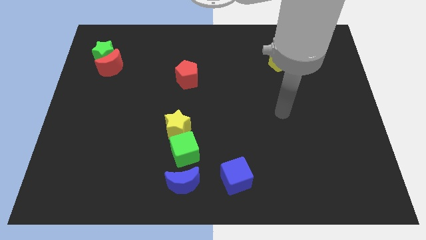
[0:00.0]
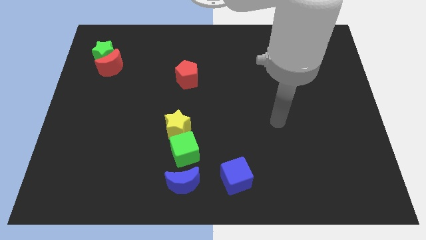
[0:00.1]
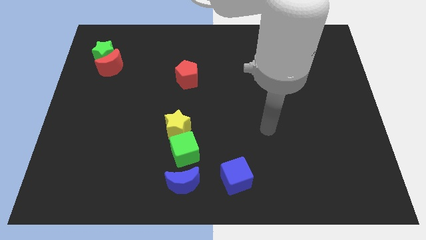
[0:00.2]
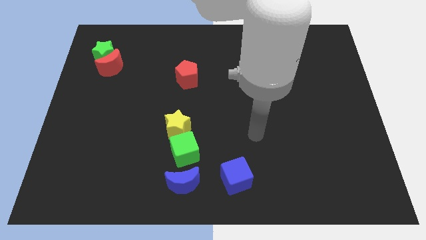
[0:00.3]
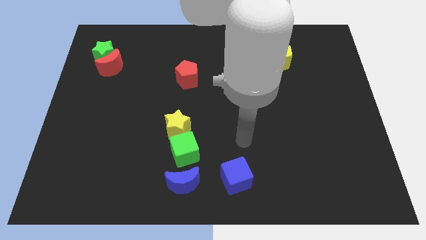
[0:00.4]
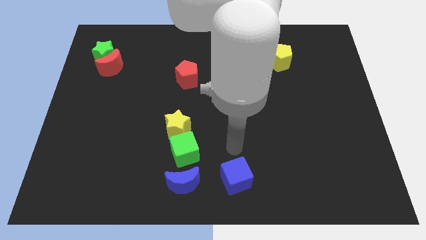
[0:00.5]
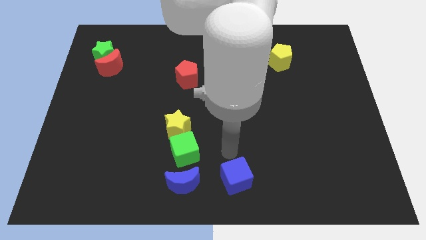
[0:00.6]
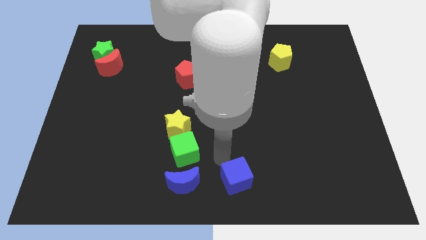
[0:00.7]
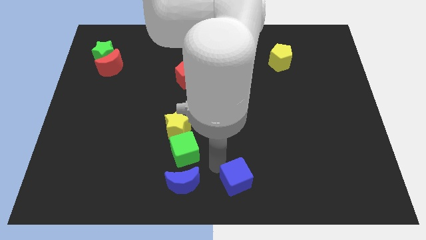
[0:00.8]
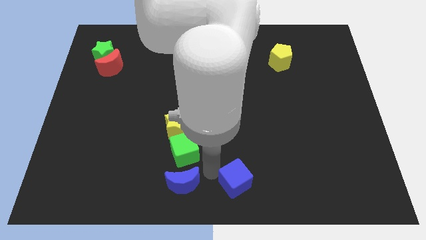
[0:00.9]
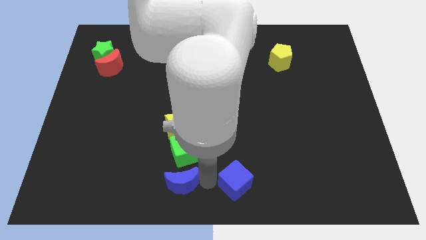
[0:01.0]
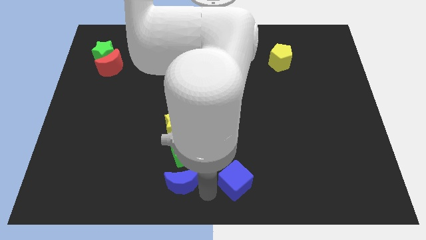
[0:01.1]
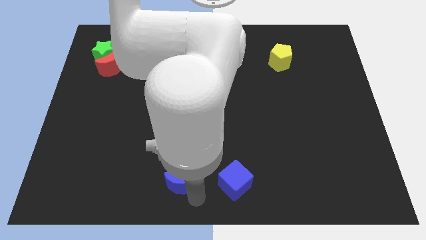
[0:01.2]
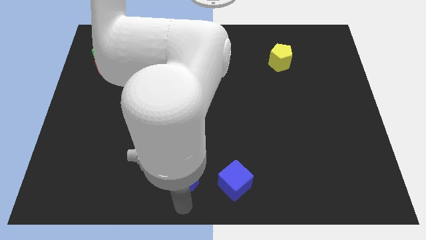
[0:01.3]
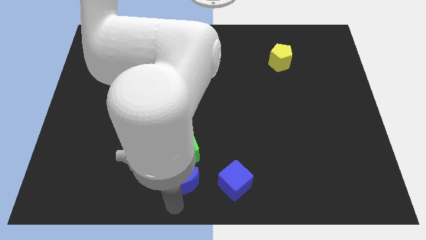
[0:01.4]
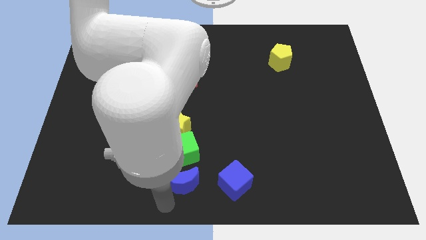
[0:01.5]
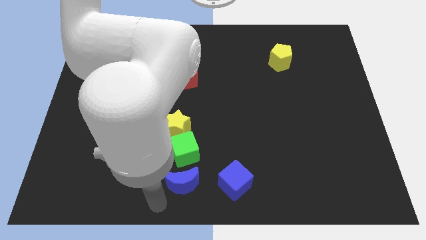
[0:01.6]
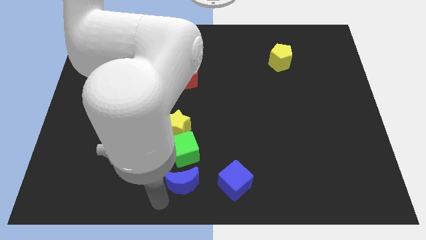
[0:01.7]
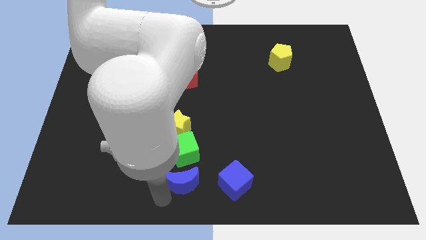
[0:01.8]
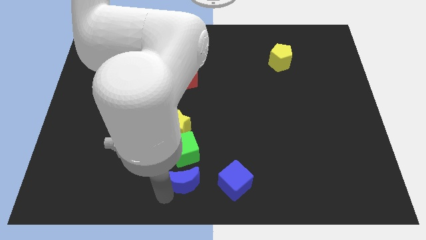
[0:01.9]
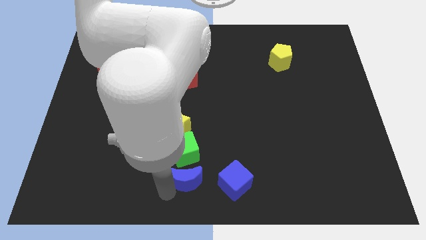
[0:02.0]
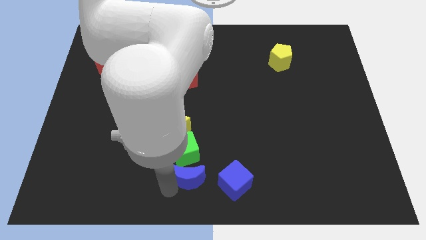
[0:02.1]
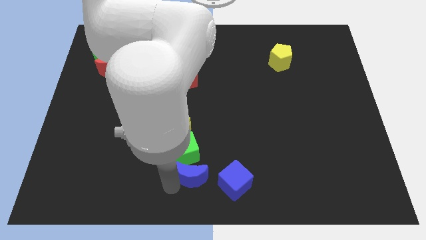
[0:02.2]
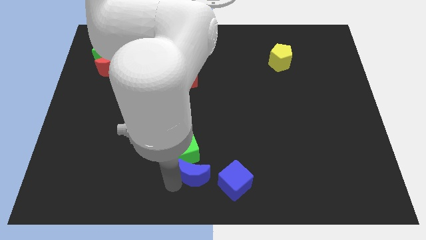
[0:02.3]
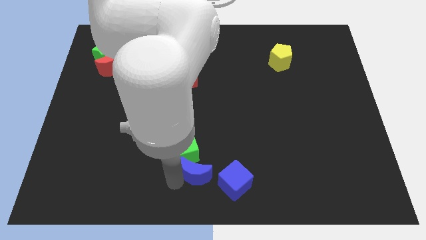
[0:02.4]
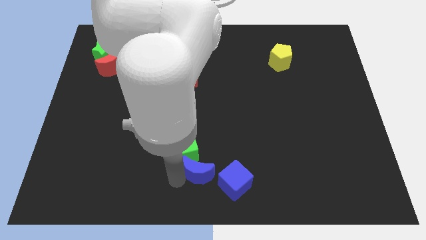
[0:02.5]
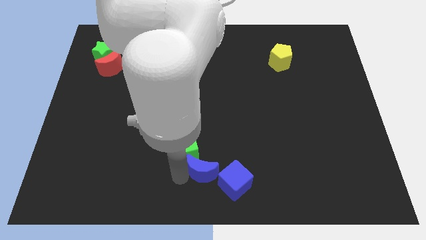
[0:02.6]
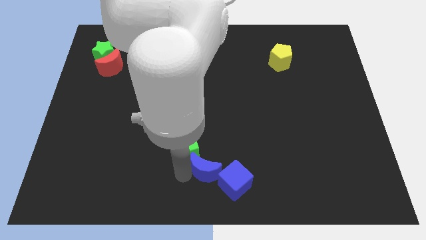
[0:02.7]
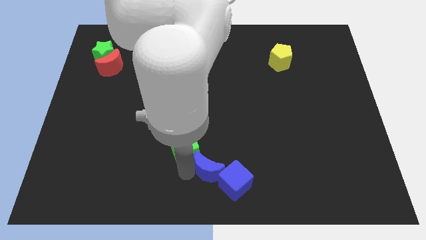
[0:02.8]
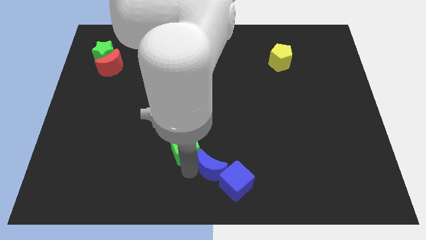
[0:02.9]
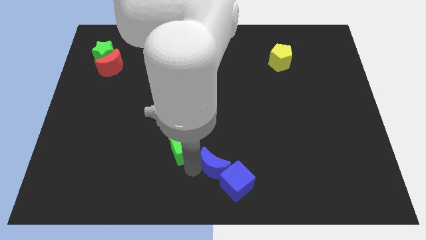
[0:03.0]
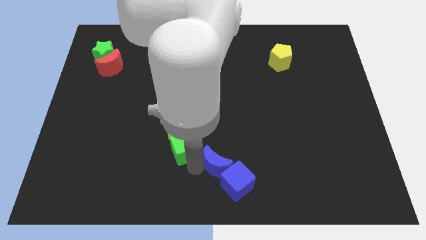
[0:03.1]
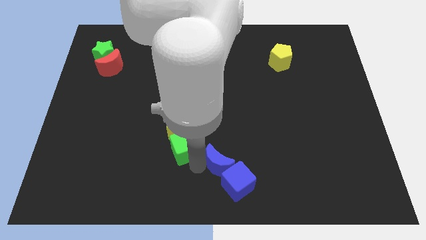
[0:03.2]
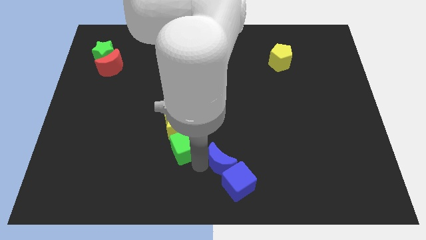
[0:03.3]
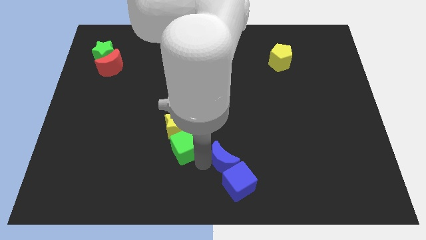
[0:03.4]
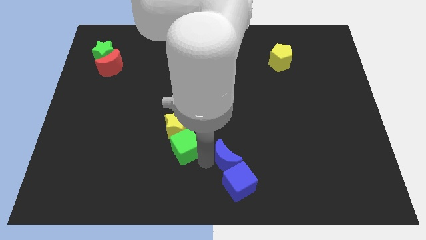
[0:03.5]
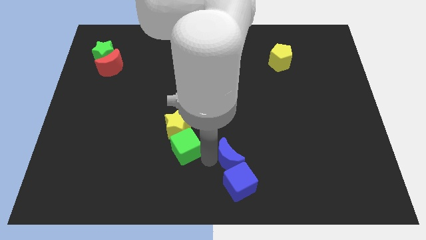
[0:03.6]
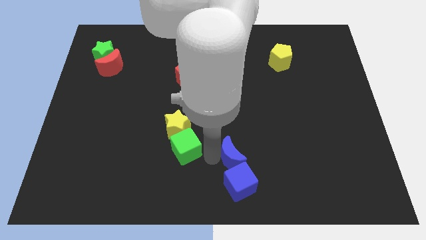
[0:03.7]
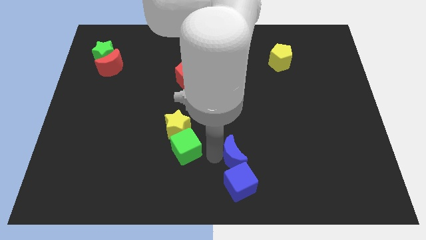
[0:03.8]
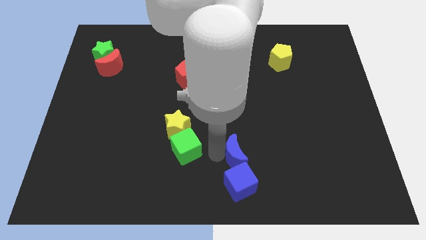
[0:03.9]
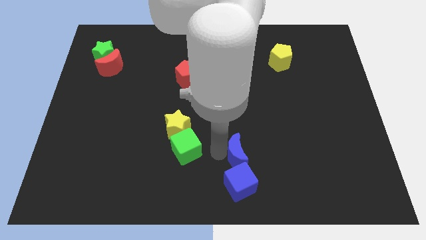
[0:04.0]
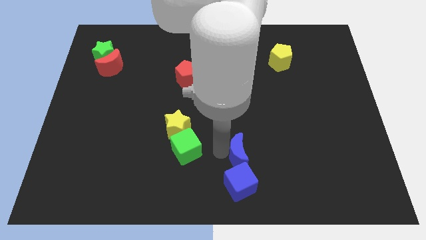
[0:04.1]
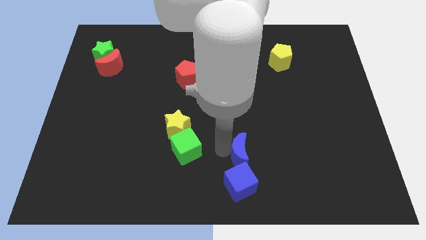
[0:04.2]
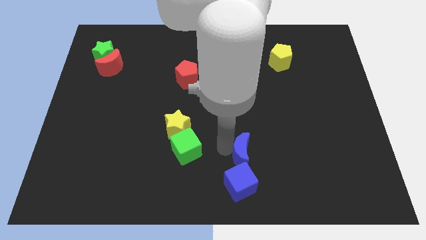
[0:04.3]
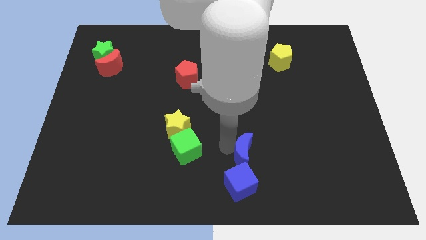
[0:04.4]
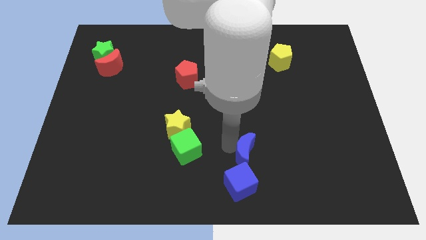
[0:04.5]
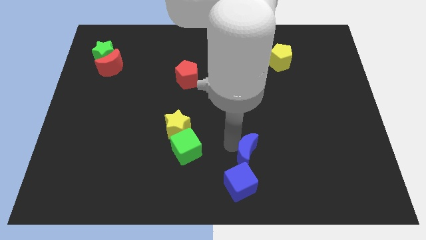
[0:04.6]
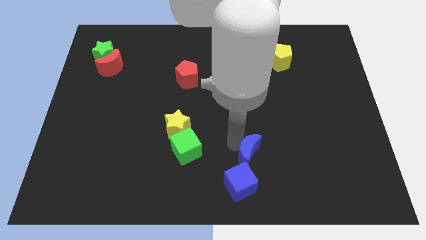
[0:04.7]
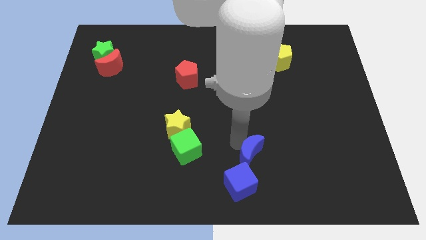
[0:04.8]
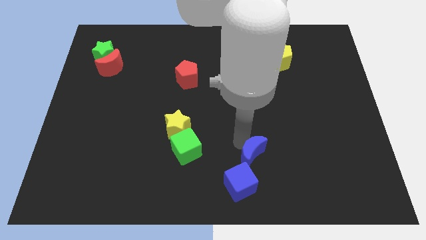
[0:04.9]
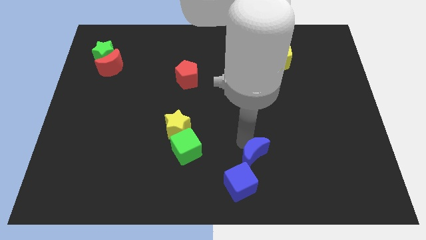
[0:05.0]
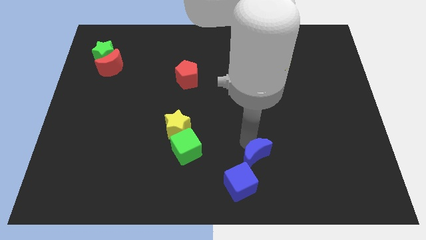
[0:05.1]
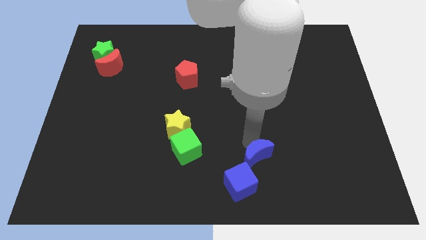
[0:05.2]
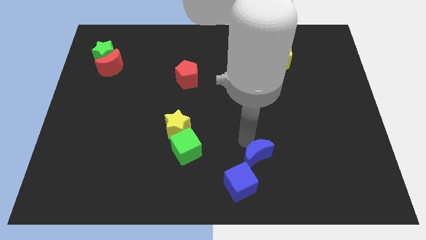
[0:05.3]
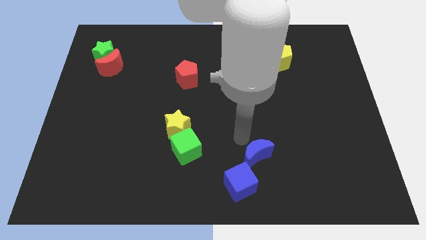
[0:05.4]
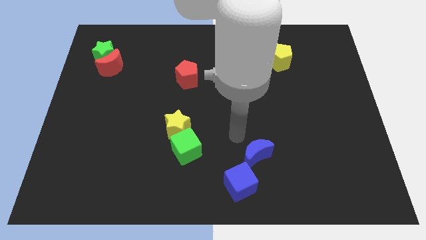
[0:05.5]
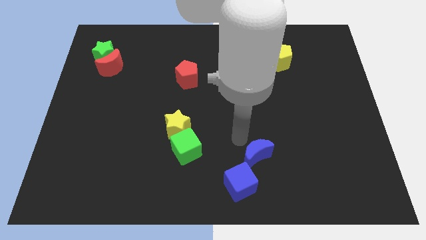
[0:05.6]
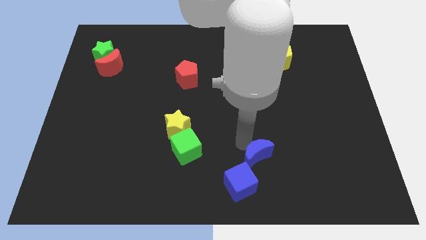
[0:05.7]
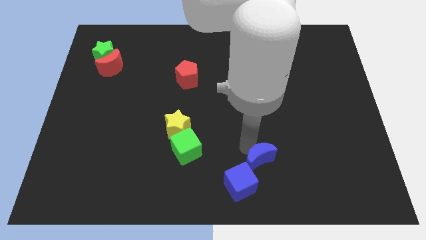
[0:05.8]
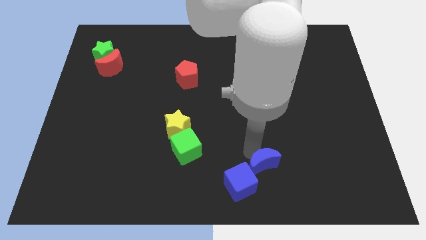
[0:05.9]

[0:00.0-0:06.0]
move the blue moon just right of the blue cube

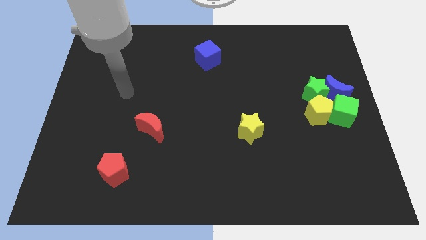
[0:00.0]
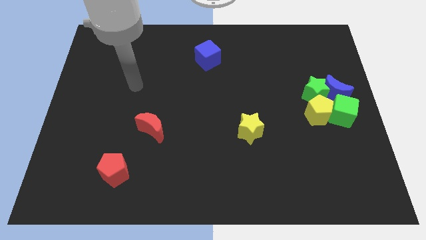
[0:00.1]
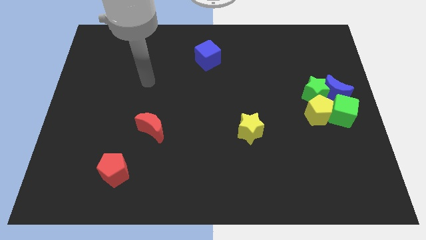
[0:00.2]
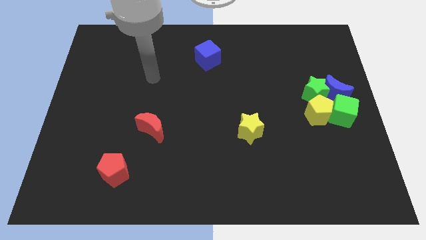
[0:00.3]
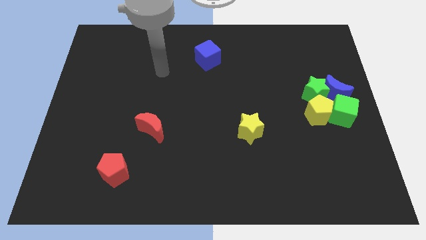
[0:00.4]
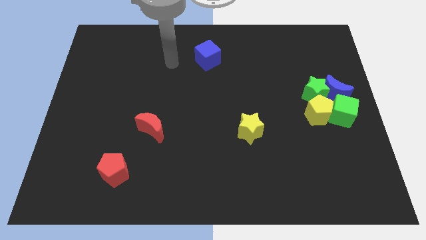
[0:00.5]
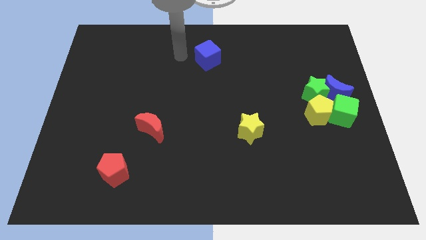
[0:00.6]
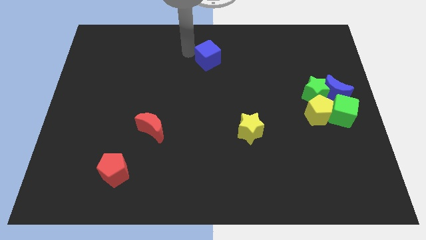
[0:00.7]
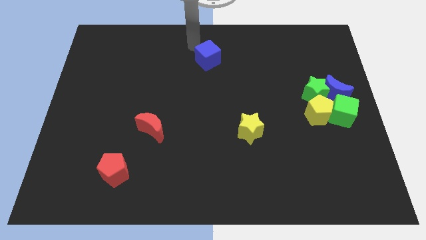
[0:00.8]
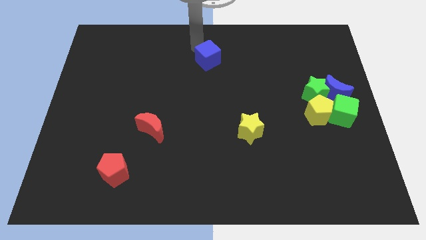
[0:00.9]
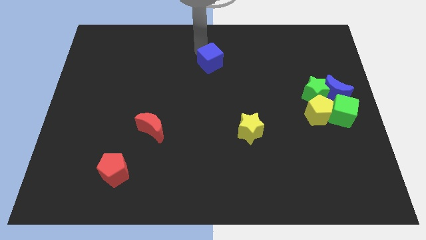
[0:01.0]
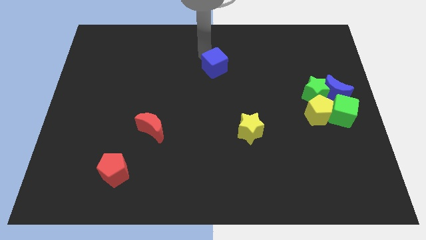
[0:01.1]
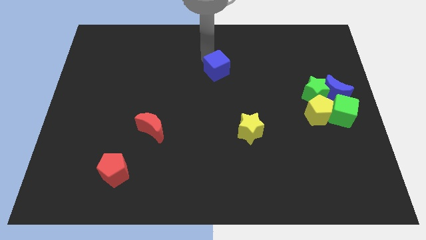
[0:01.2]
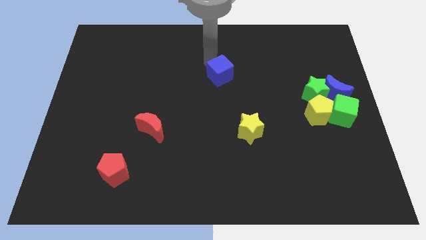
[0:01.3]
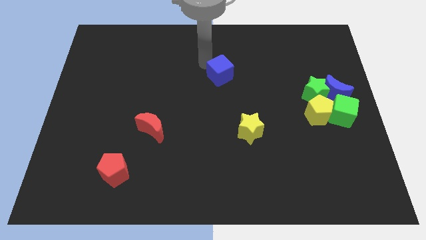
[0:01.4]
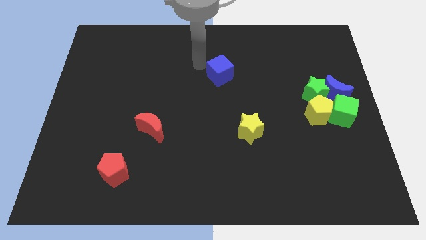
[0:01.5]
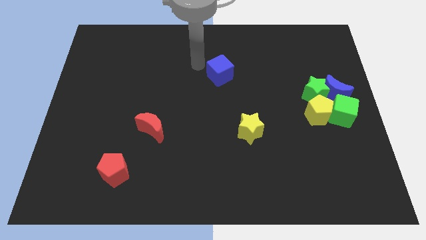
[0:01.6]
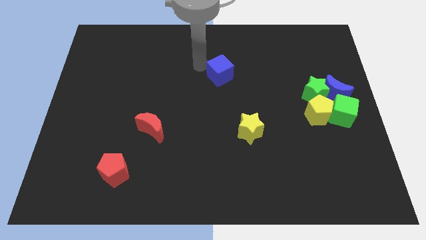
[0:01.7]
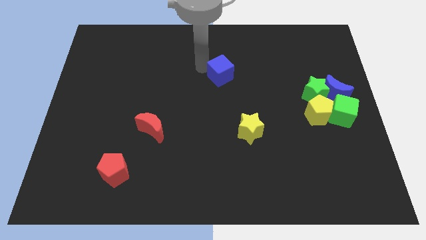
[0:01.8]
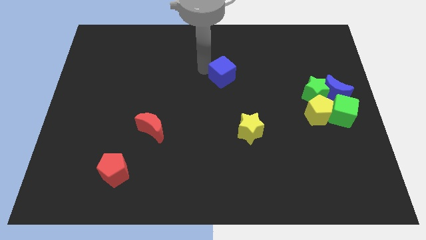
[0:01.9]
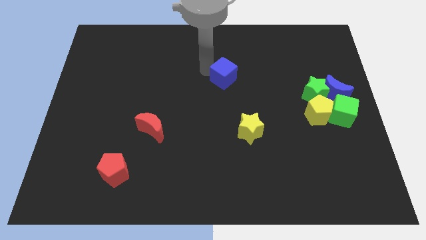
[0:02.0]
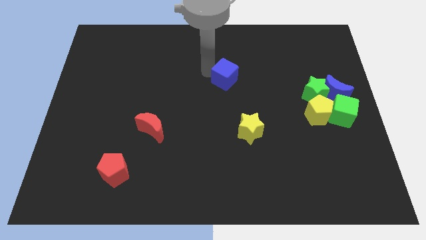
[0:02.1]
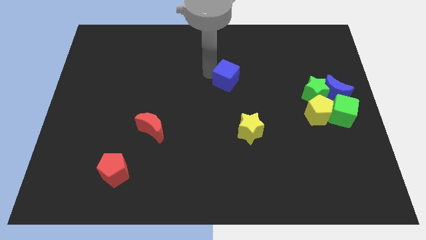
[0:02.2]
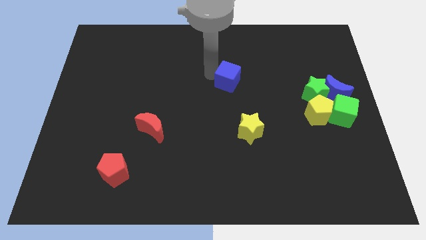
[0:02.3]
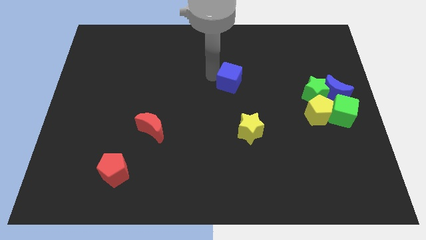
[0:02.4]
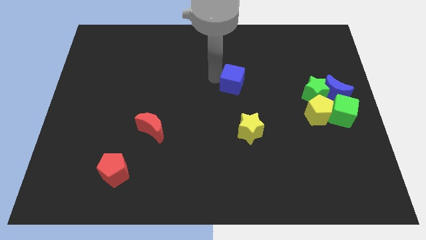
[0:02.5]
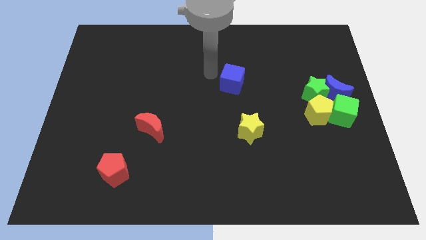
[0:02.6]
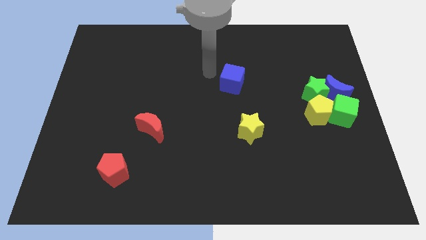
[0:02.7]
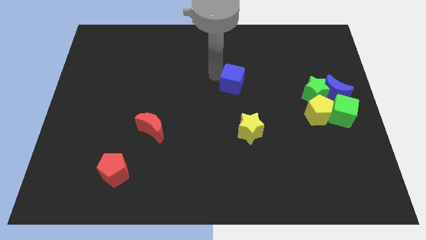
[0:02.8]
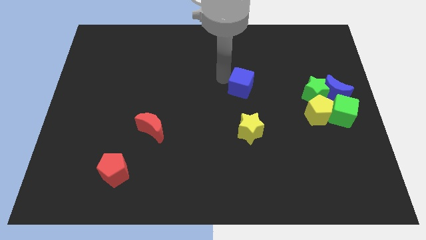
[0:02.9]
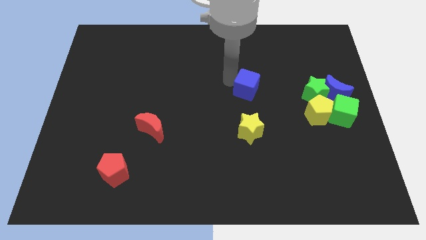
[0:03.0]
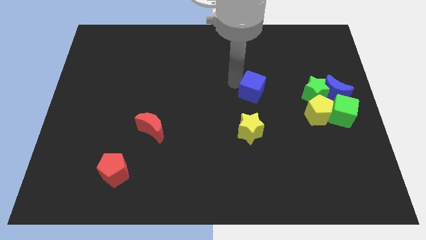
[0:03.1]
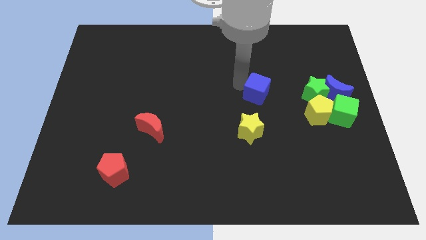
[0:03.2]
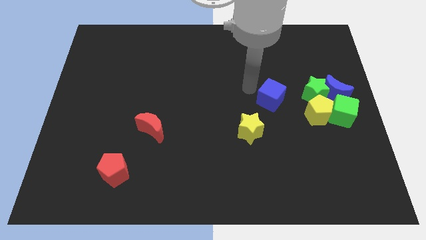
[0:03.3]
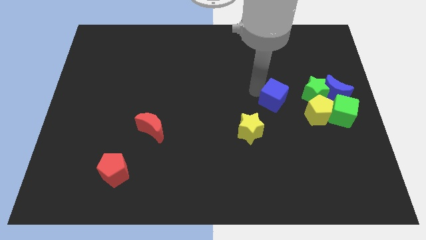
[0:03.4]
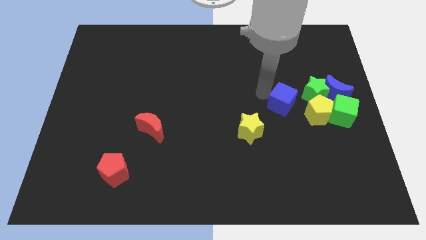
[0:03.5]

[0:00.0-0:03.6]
push the blue cube to the bottom left side of the green star
